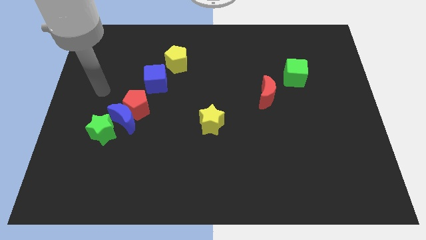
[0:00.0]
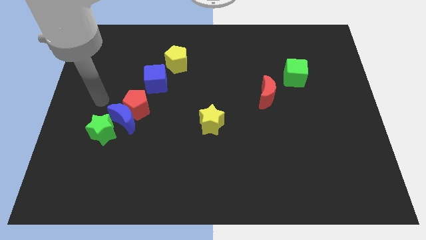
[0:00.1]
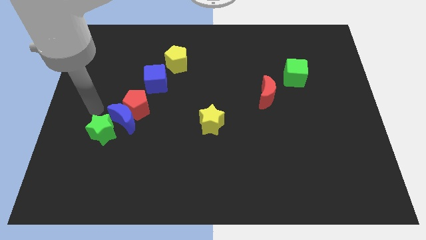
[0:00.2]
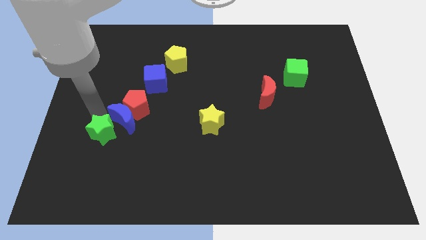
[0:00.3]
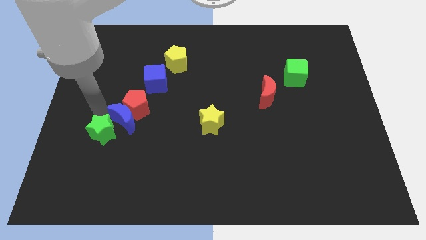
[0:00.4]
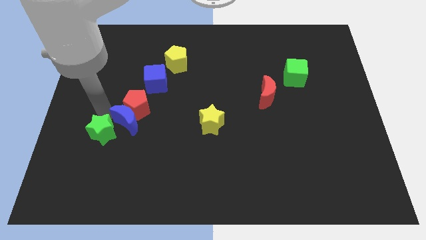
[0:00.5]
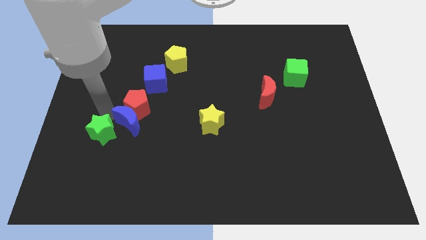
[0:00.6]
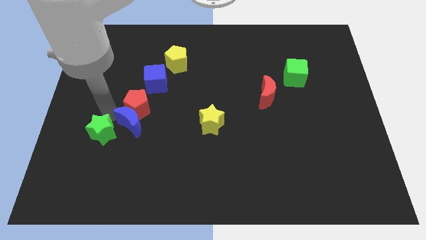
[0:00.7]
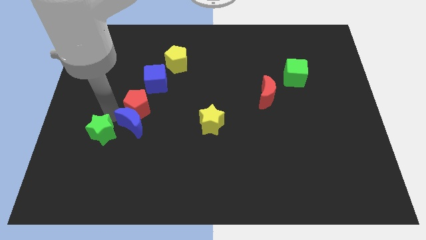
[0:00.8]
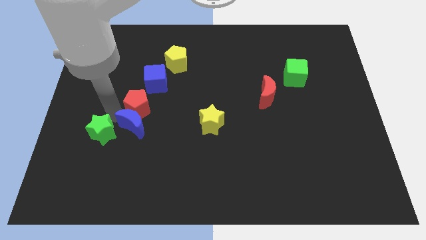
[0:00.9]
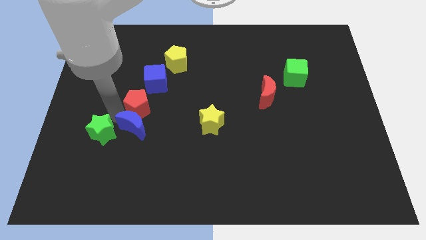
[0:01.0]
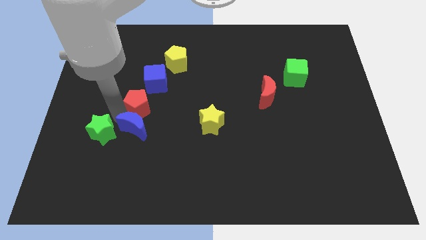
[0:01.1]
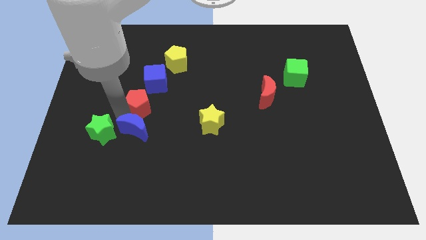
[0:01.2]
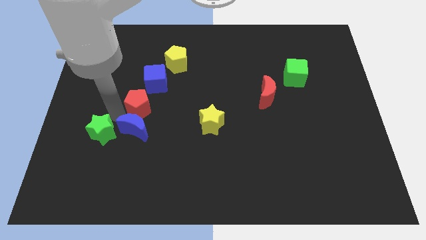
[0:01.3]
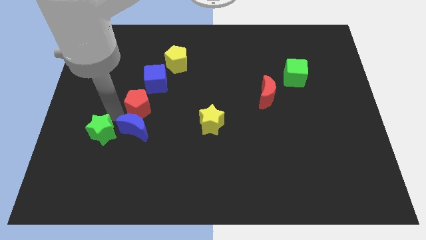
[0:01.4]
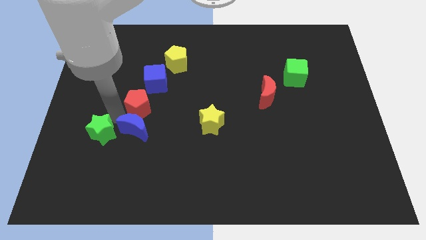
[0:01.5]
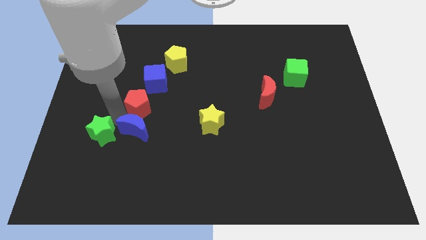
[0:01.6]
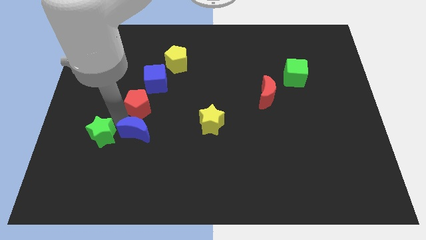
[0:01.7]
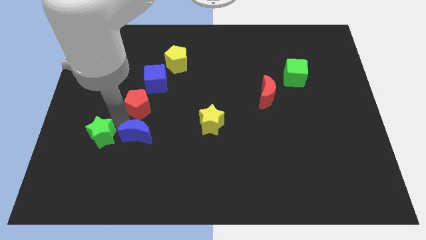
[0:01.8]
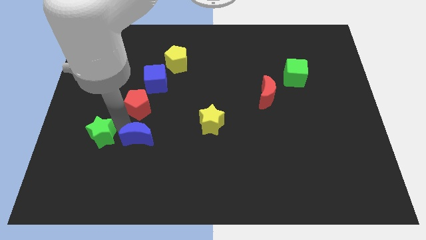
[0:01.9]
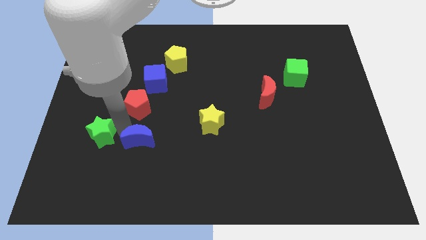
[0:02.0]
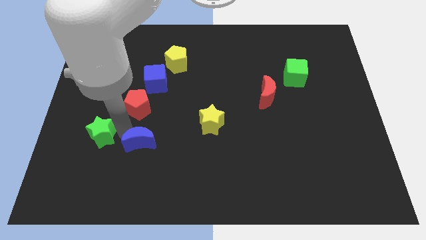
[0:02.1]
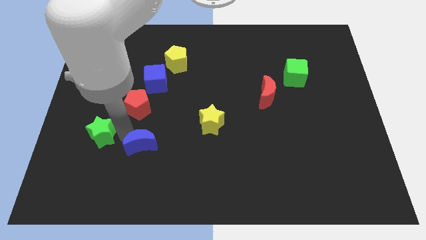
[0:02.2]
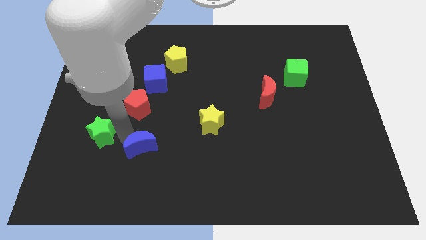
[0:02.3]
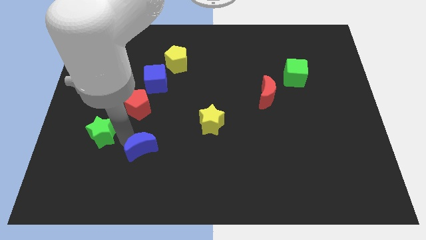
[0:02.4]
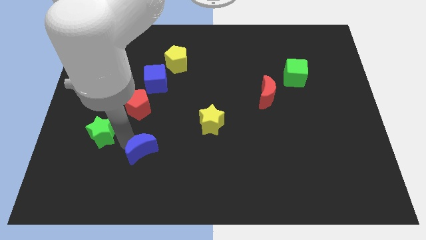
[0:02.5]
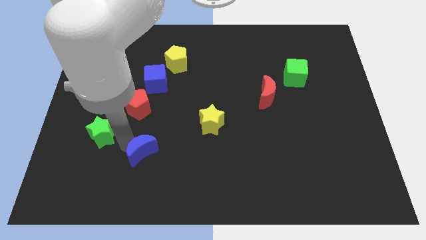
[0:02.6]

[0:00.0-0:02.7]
separate the blue moon from the red pentagon and green star

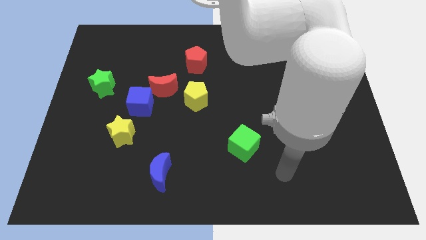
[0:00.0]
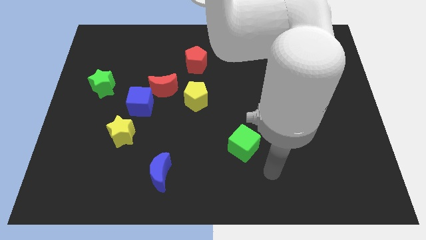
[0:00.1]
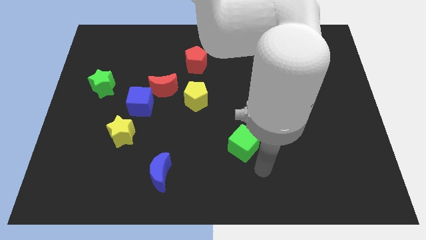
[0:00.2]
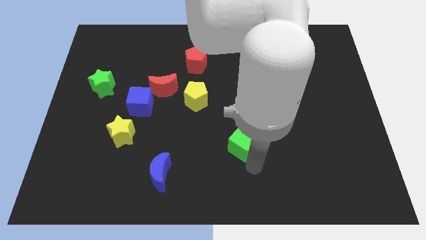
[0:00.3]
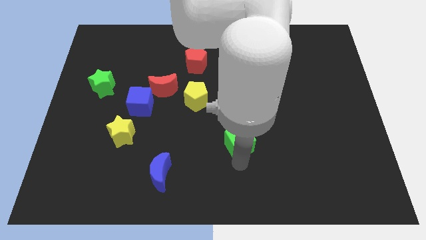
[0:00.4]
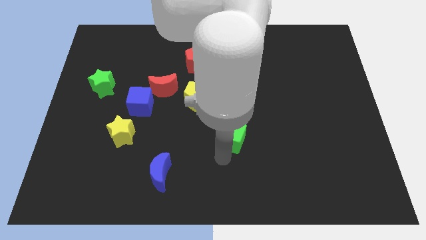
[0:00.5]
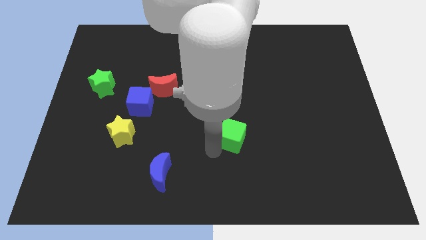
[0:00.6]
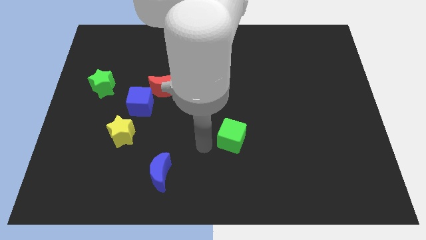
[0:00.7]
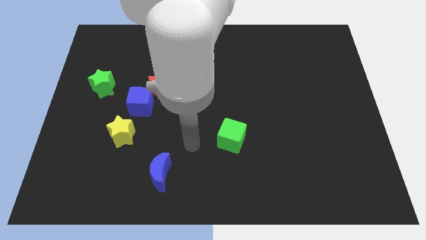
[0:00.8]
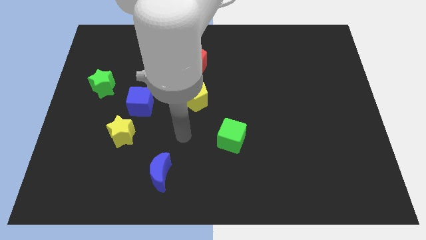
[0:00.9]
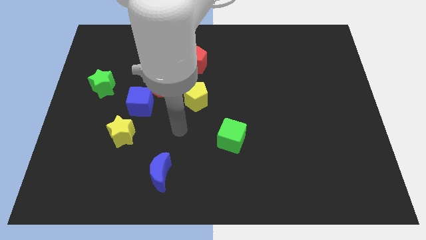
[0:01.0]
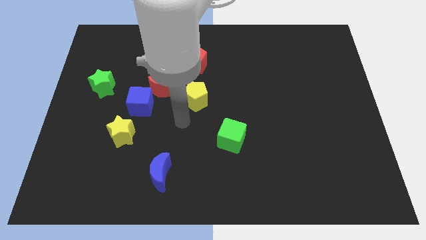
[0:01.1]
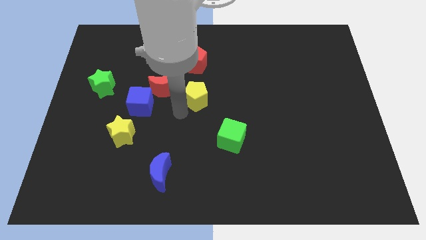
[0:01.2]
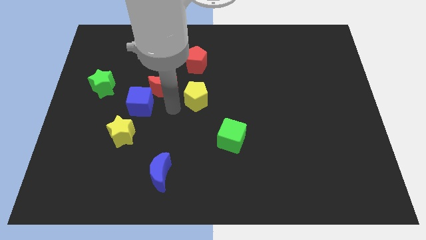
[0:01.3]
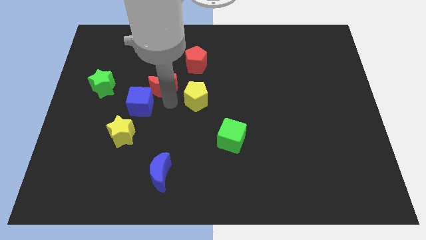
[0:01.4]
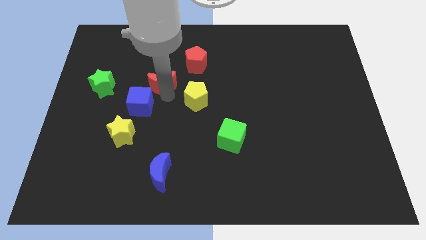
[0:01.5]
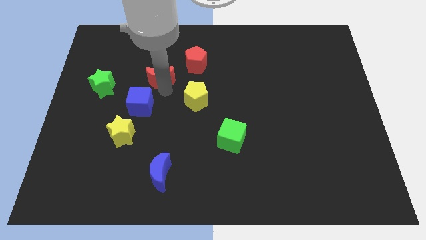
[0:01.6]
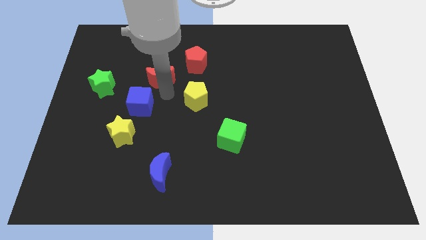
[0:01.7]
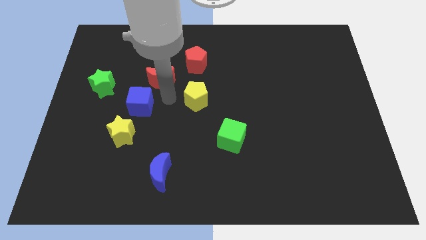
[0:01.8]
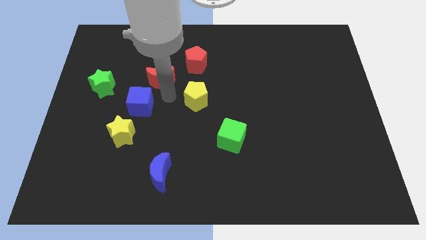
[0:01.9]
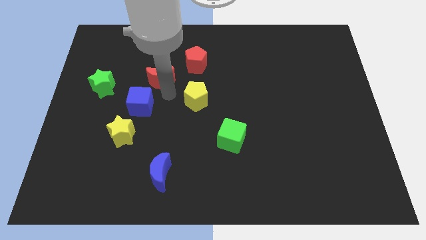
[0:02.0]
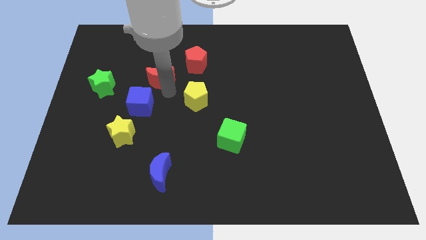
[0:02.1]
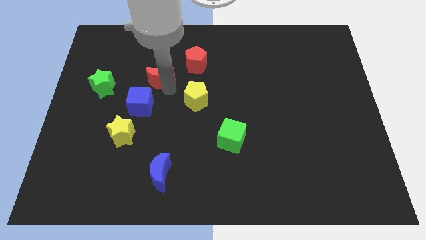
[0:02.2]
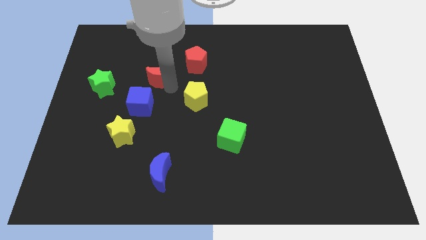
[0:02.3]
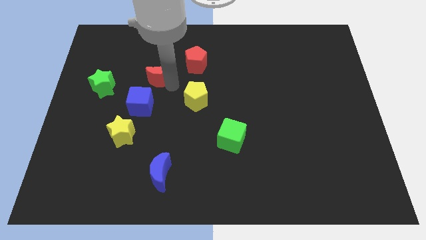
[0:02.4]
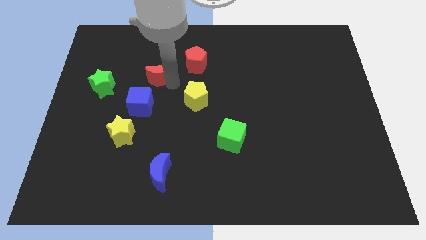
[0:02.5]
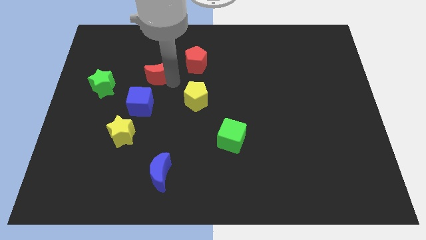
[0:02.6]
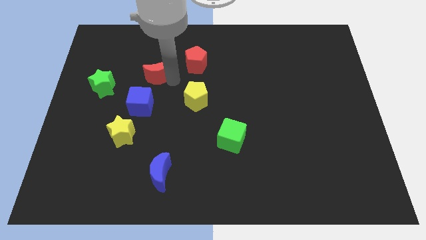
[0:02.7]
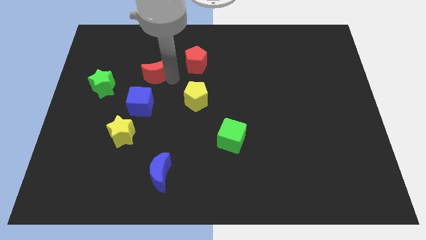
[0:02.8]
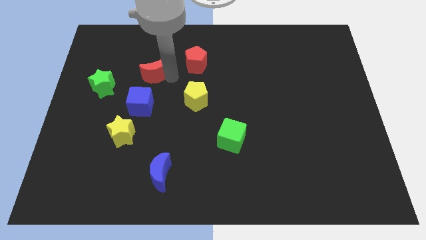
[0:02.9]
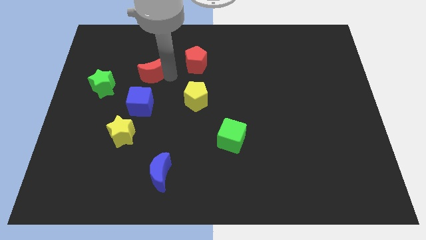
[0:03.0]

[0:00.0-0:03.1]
move the red moon away from the blue cube and yellow pentagon

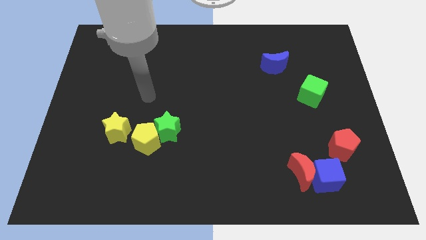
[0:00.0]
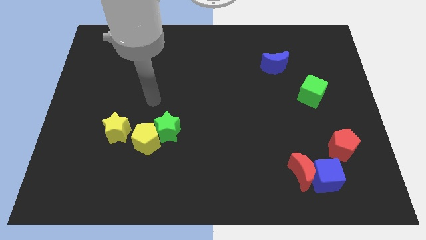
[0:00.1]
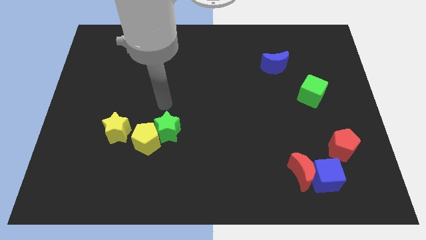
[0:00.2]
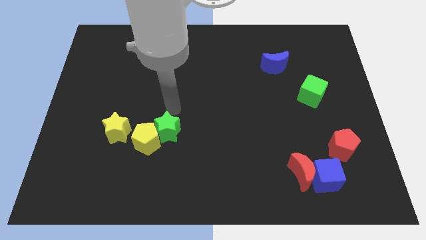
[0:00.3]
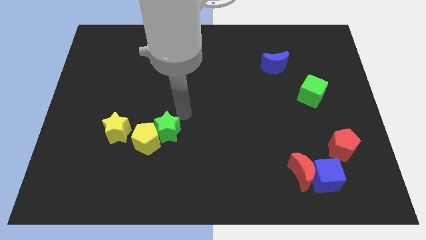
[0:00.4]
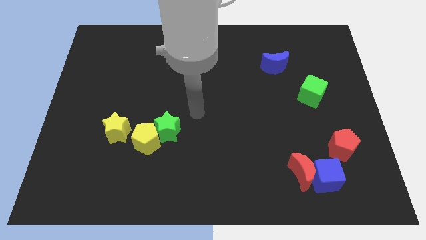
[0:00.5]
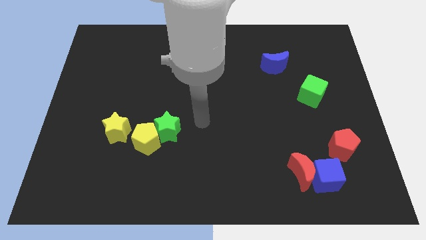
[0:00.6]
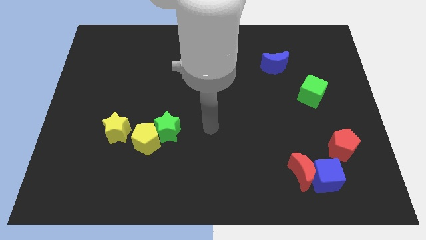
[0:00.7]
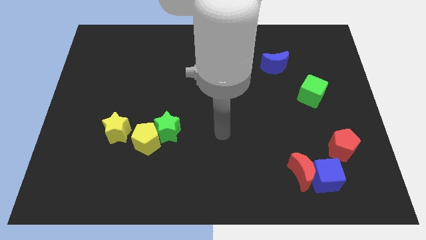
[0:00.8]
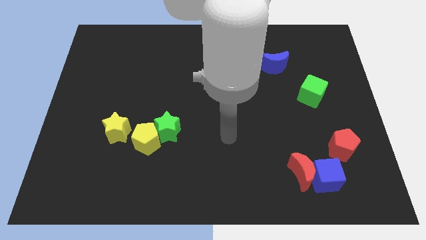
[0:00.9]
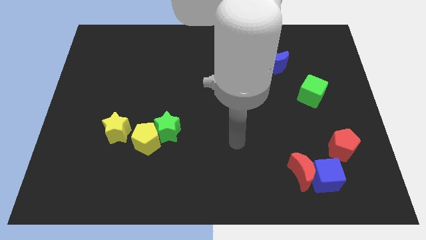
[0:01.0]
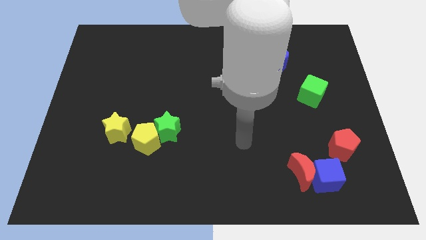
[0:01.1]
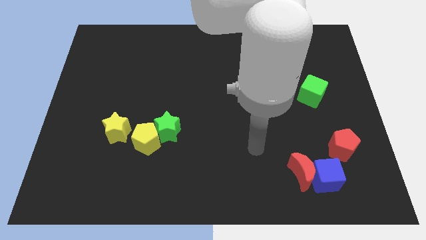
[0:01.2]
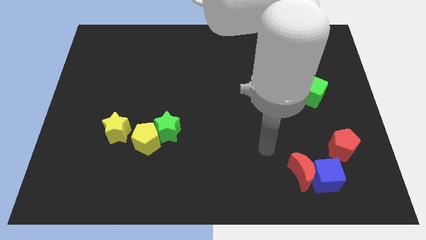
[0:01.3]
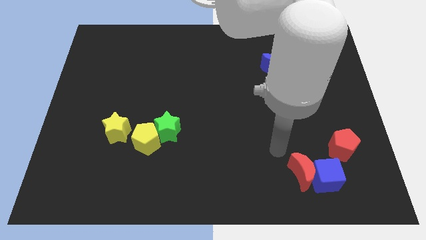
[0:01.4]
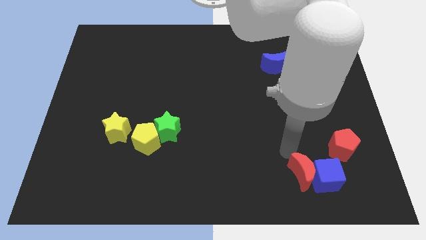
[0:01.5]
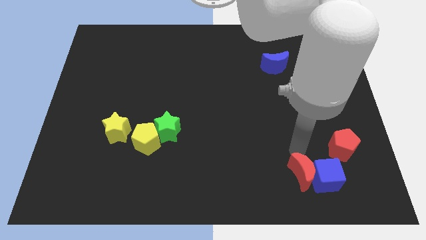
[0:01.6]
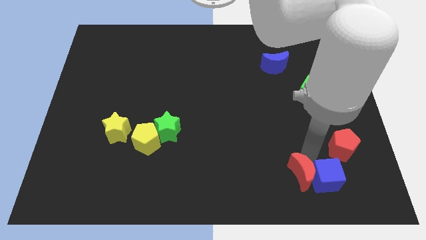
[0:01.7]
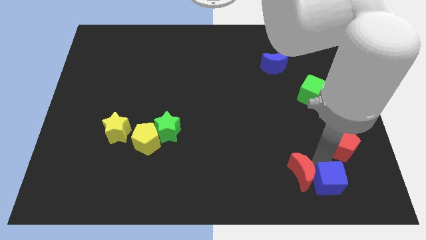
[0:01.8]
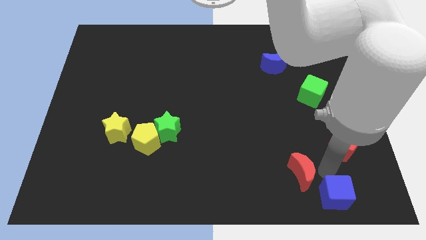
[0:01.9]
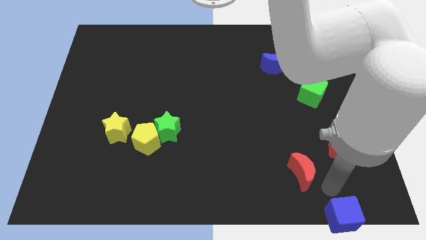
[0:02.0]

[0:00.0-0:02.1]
pull the red moon apart from the blue cube

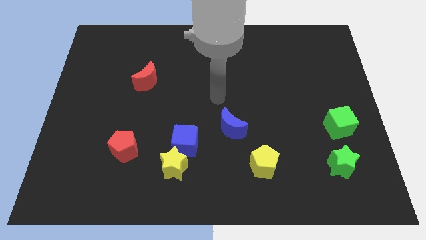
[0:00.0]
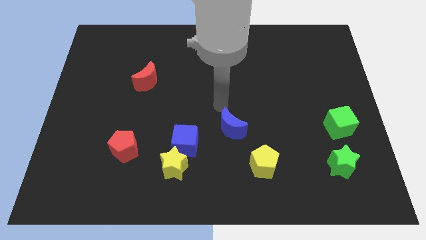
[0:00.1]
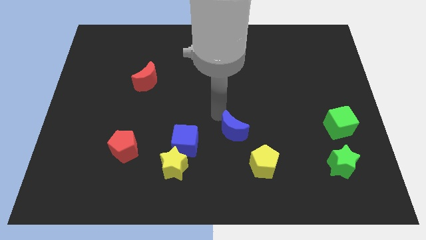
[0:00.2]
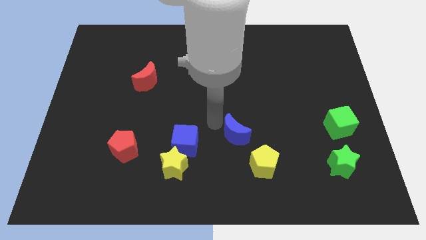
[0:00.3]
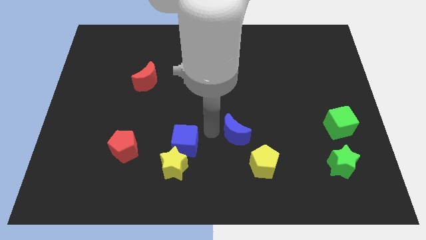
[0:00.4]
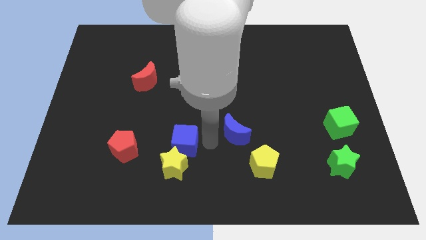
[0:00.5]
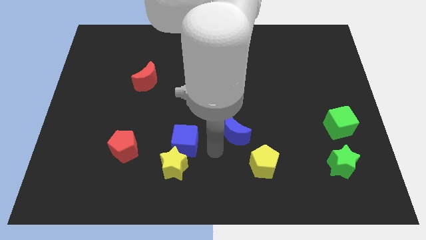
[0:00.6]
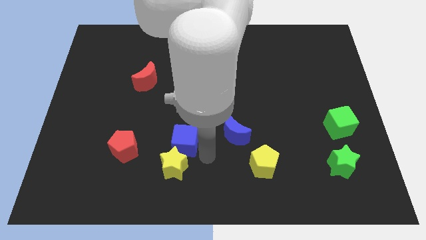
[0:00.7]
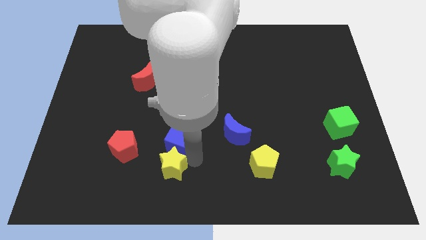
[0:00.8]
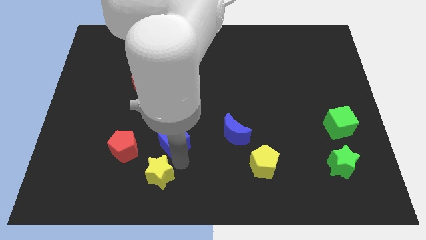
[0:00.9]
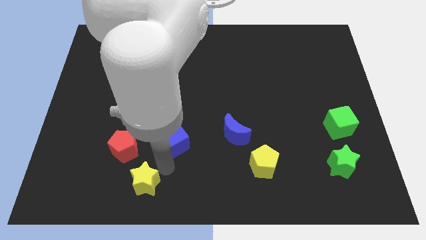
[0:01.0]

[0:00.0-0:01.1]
move the blue cube away from the yellow star

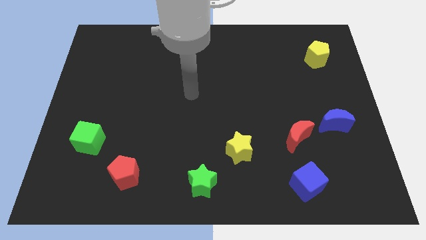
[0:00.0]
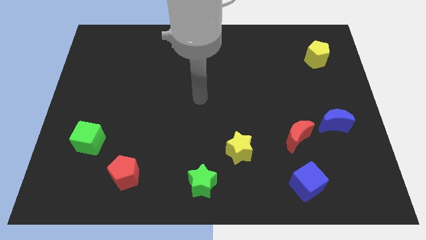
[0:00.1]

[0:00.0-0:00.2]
separate the red moon from the blue moon

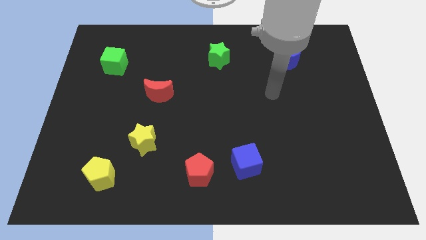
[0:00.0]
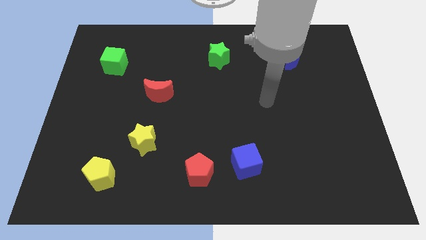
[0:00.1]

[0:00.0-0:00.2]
separate the red pentagon from the blue cube
